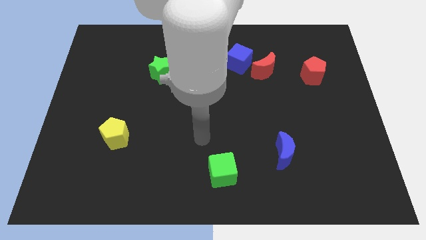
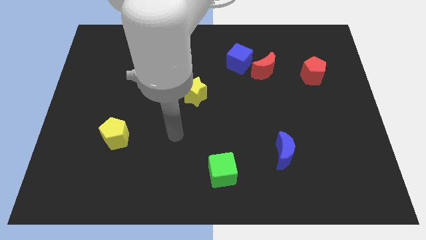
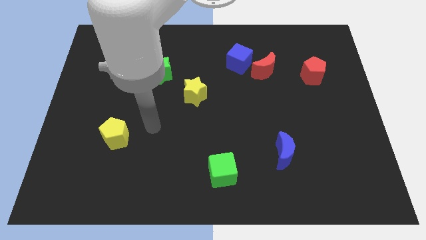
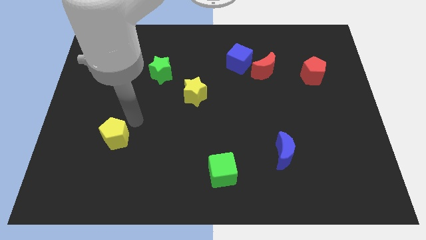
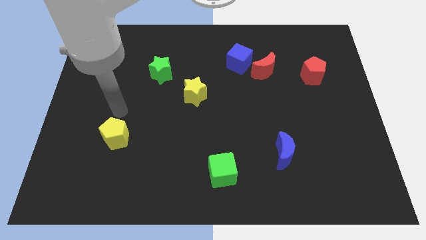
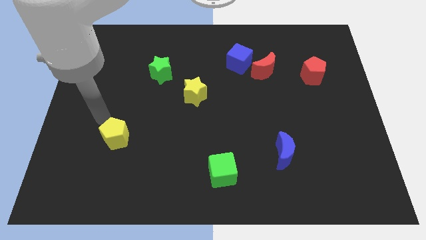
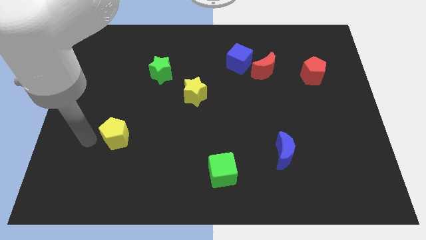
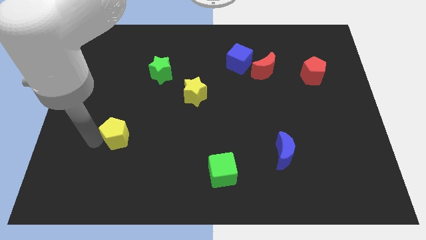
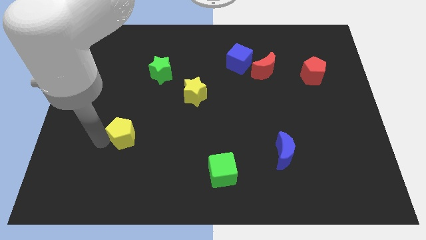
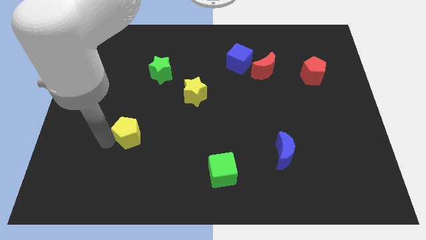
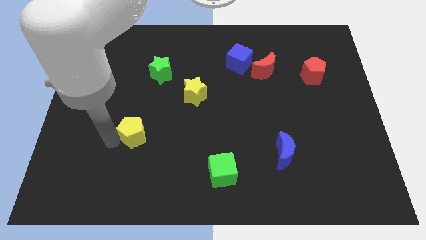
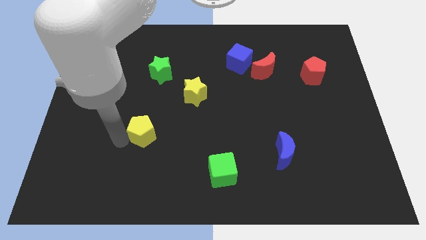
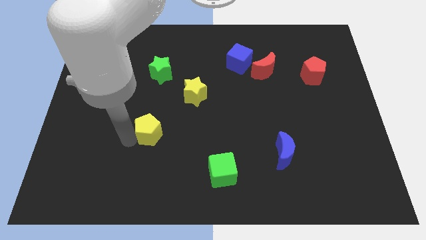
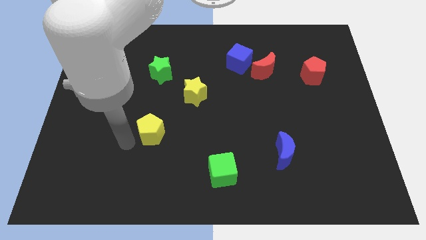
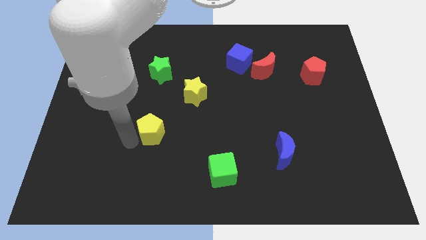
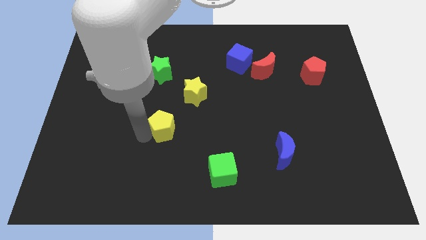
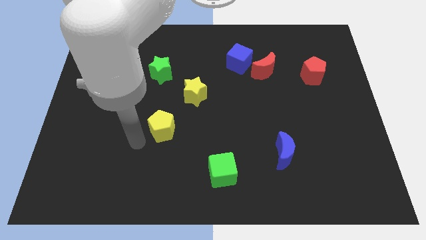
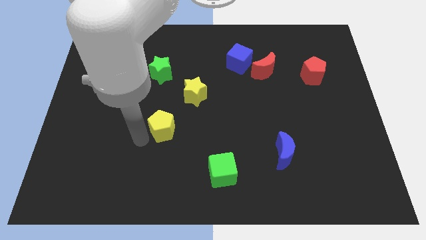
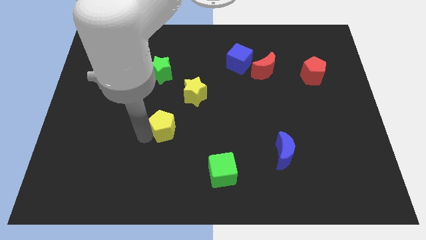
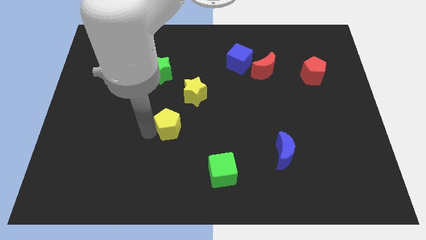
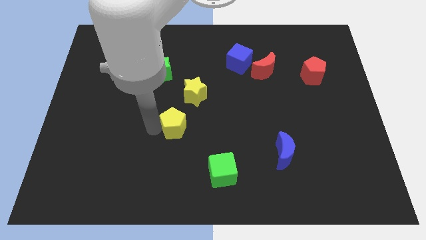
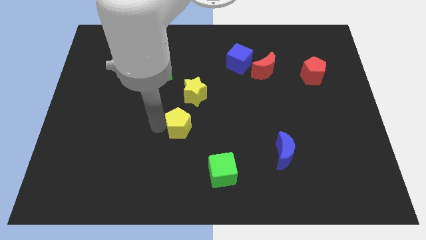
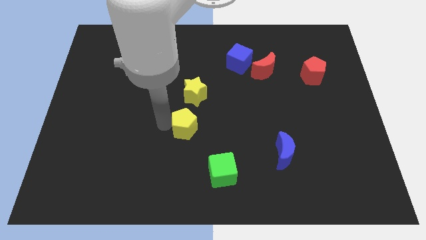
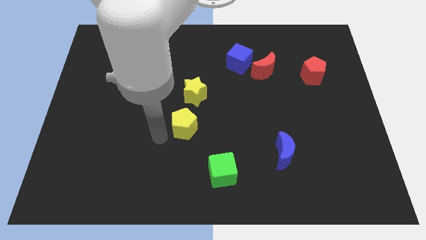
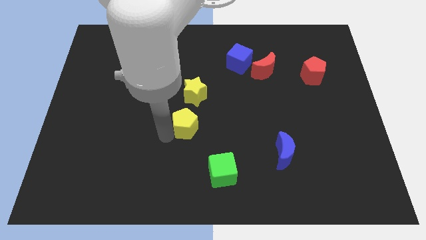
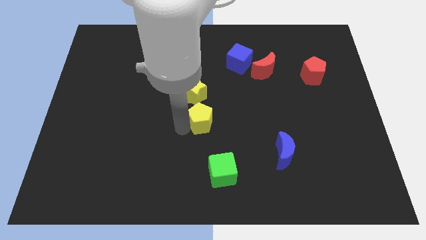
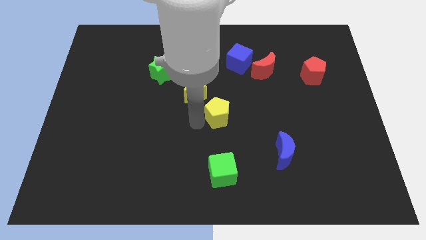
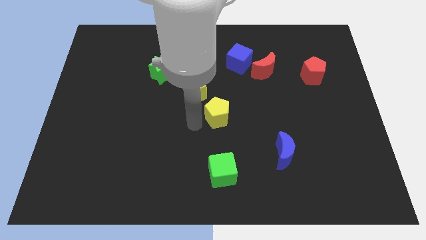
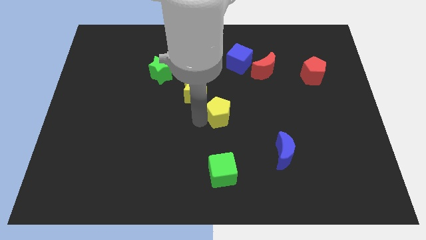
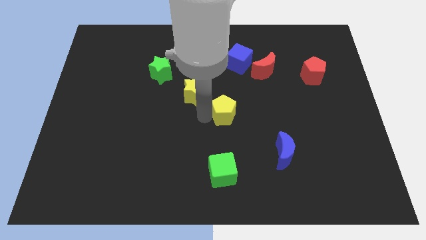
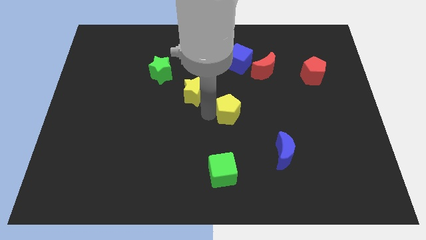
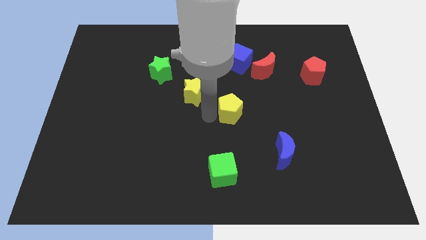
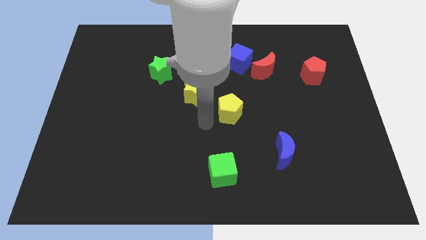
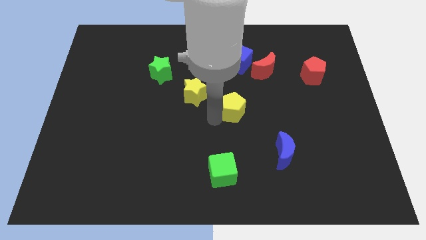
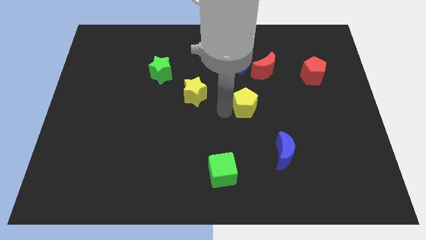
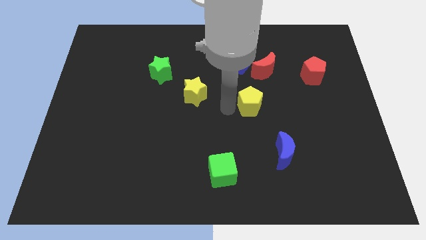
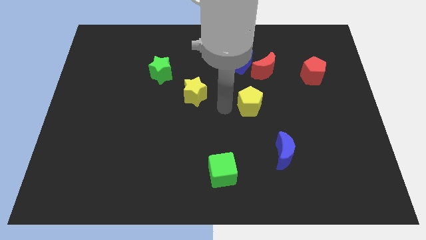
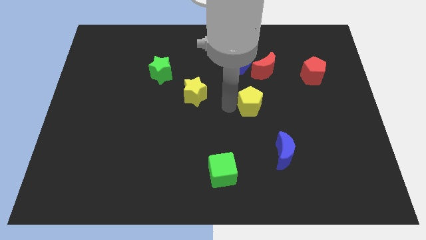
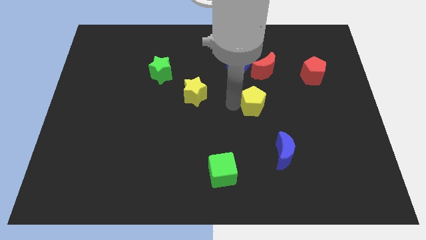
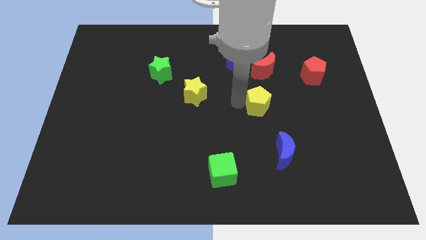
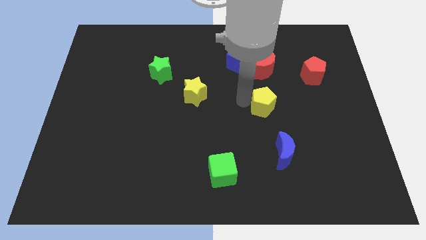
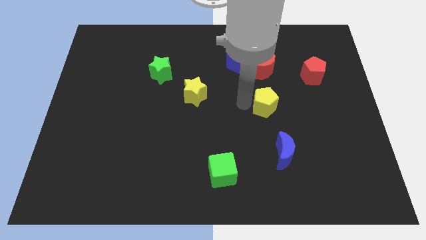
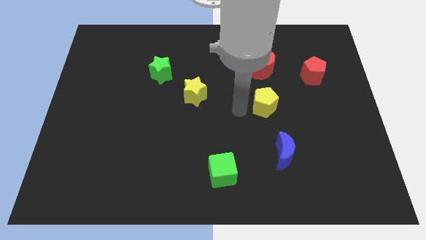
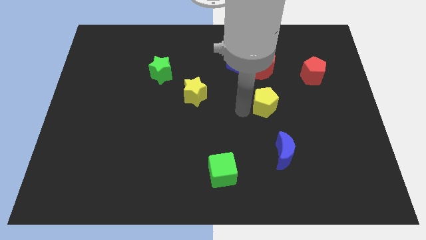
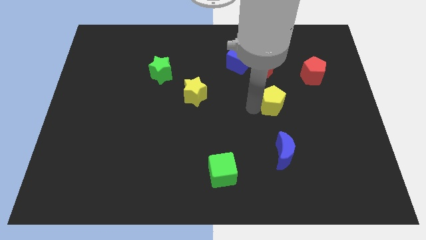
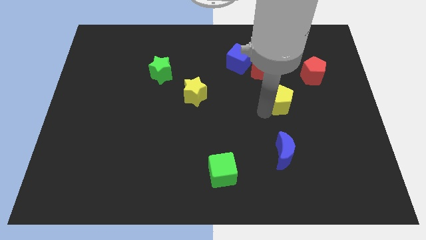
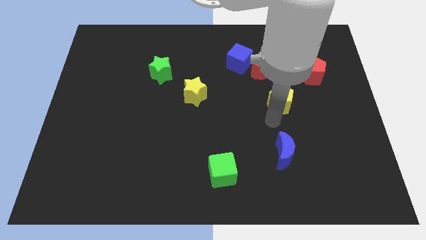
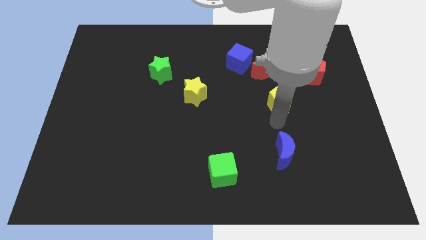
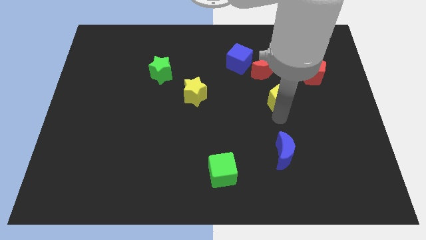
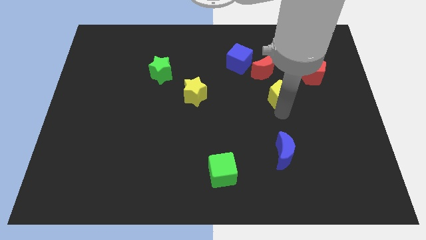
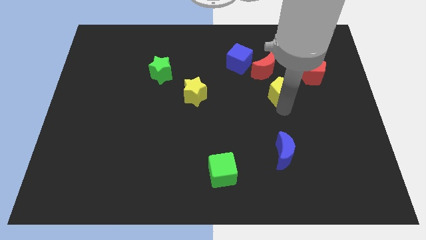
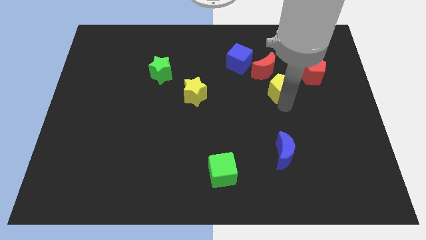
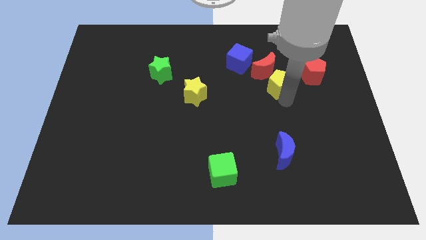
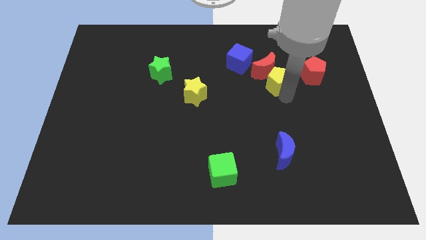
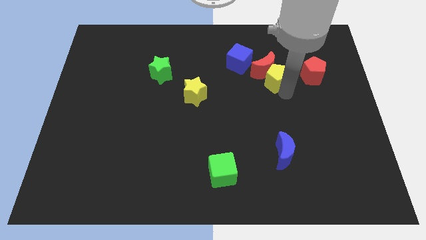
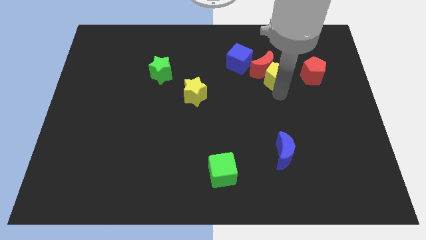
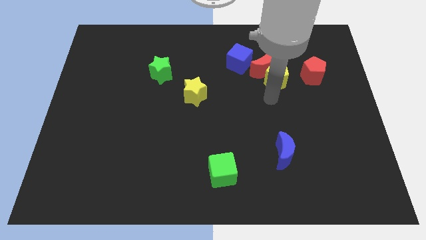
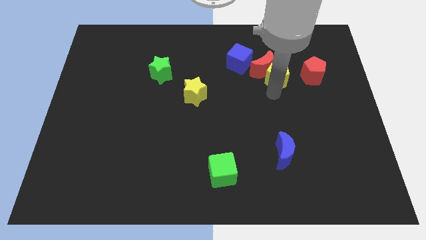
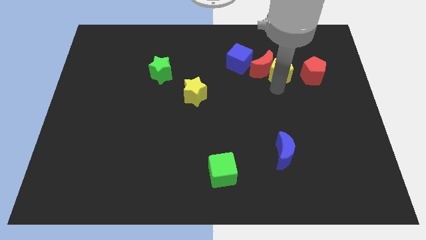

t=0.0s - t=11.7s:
move the yellow pentagon to the top right side of the red moon

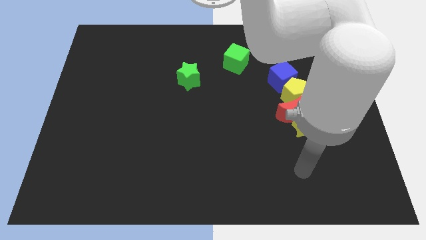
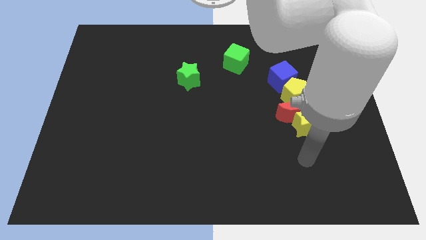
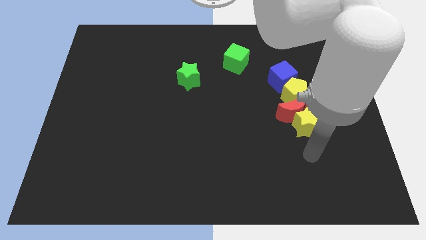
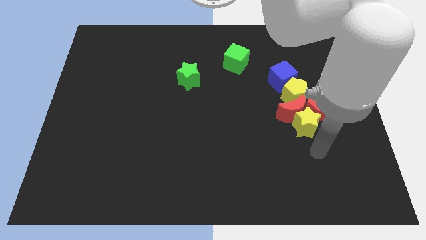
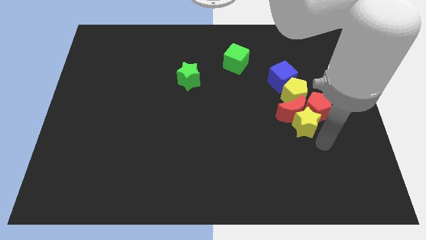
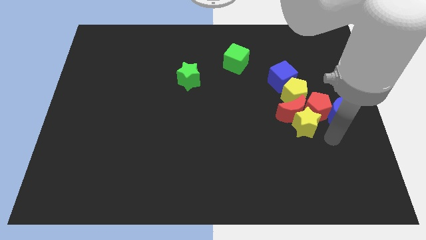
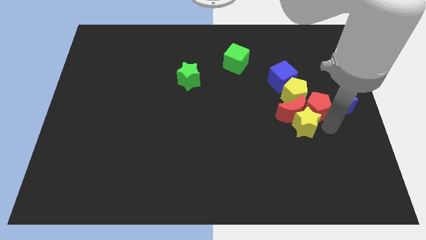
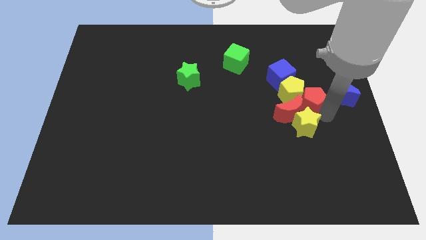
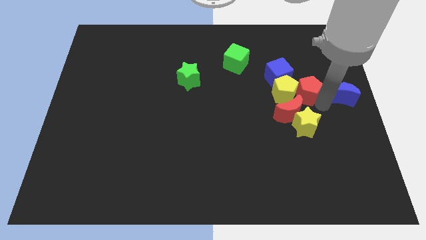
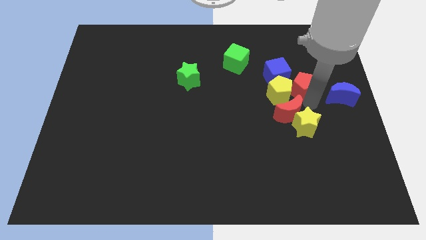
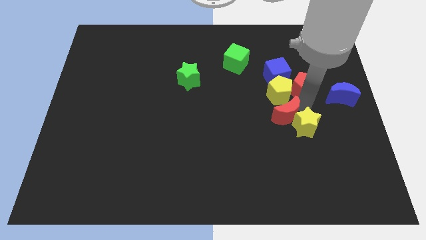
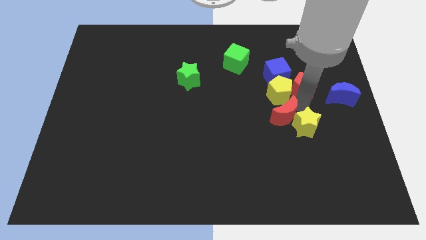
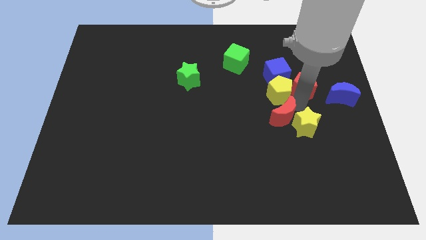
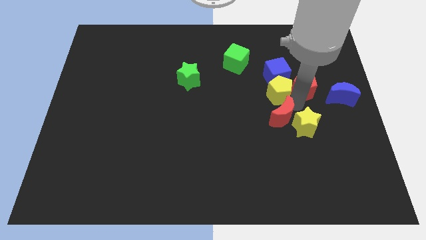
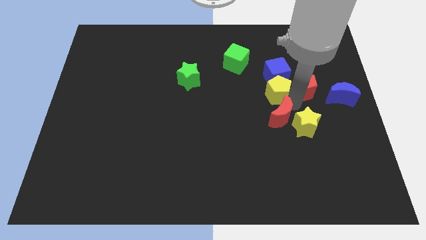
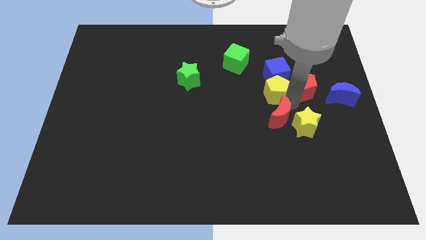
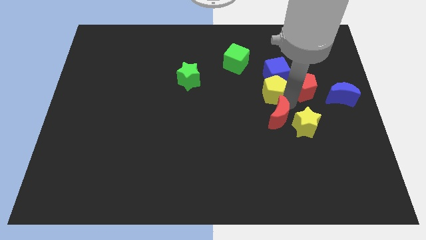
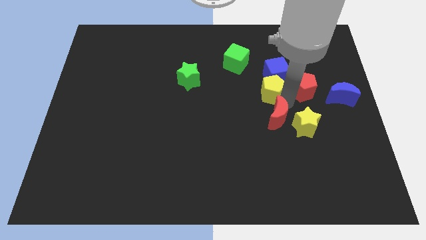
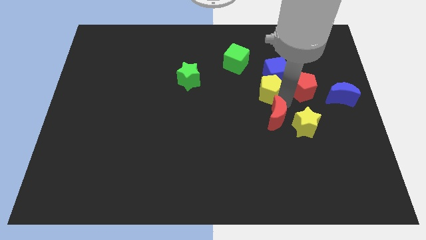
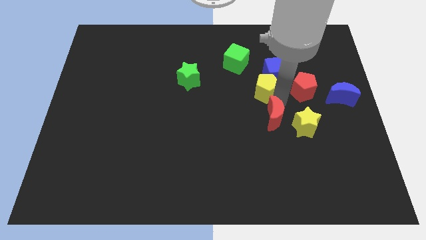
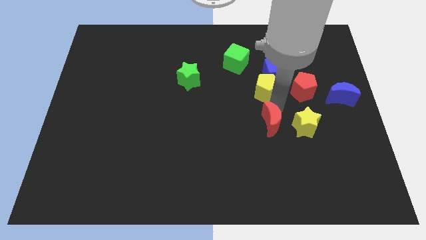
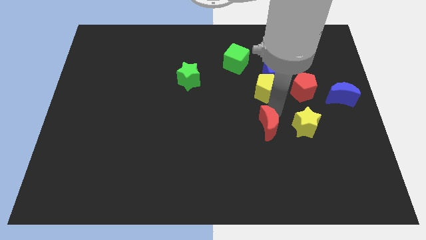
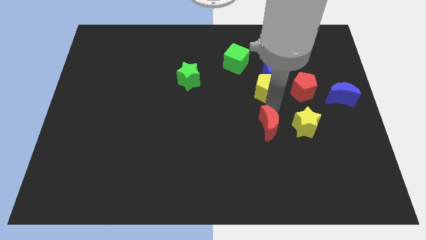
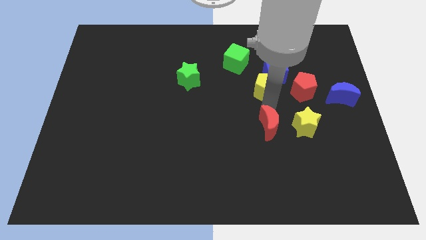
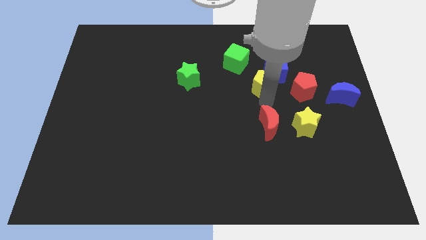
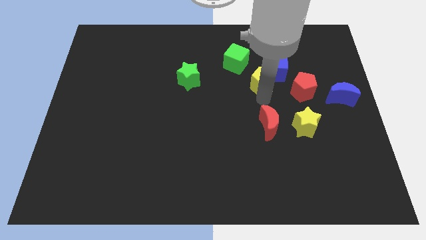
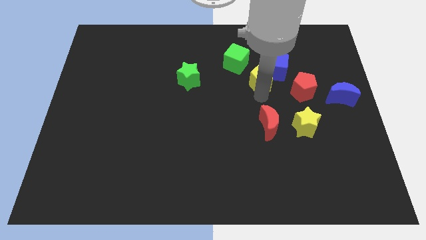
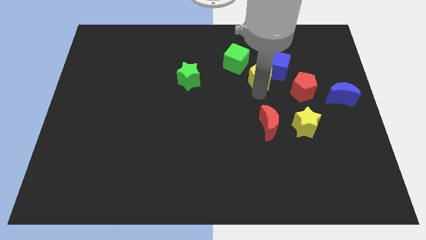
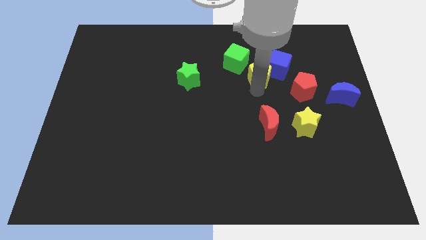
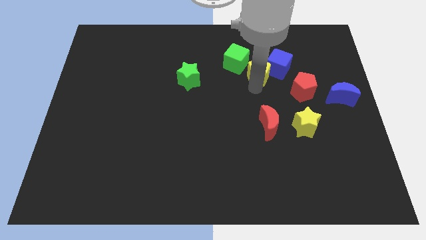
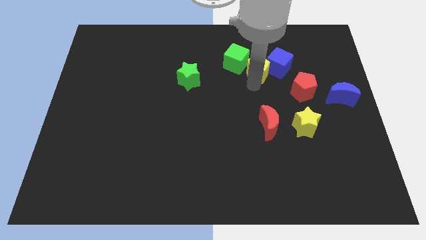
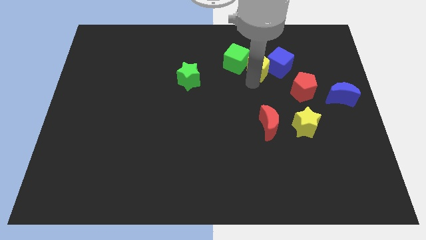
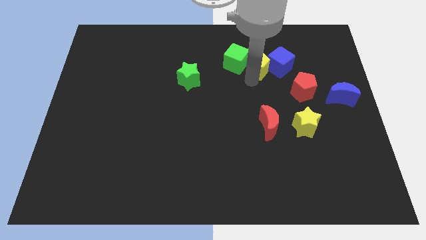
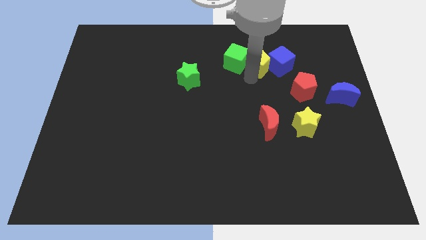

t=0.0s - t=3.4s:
move the yellow pentagon diagonally up and to the left of the blue cube
